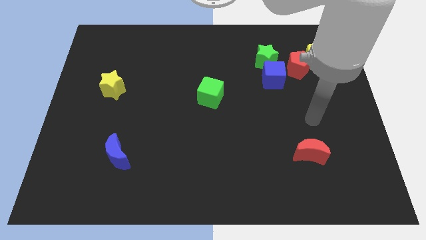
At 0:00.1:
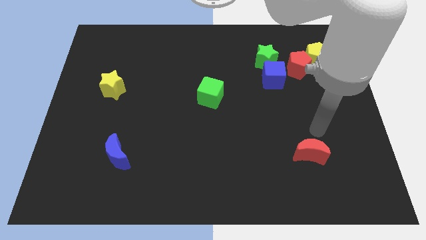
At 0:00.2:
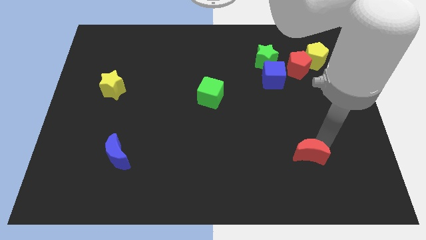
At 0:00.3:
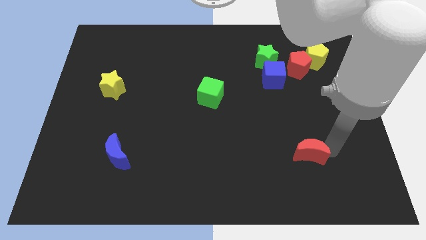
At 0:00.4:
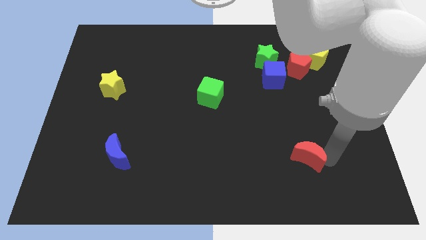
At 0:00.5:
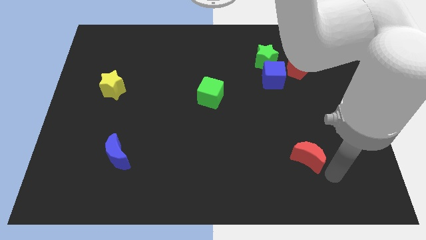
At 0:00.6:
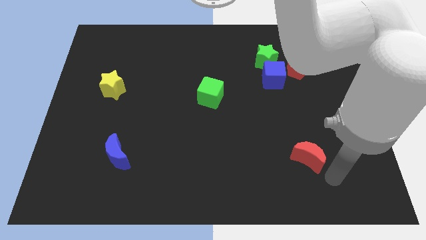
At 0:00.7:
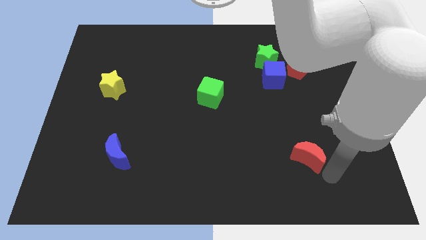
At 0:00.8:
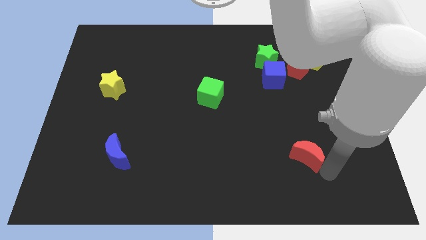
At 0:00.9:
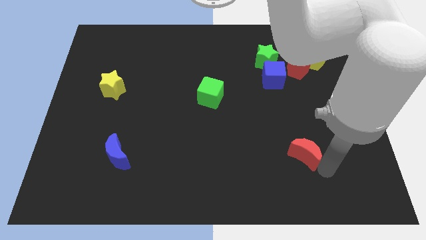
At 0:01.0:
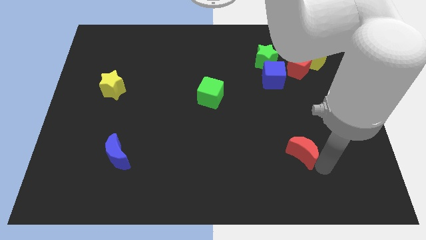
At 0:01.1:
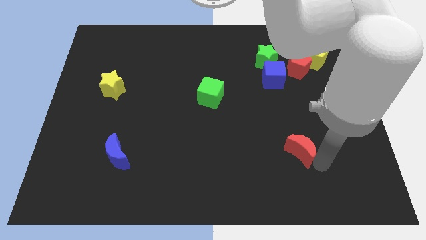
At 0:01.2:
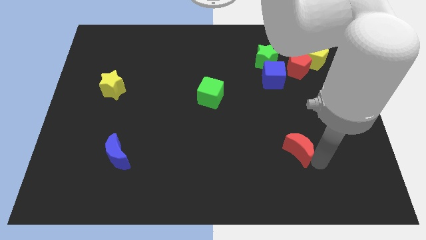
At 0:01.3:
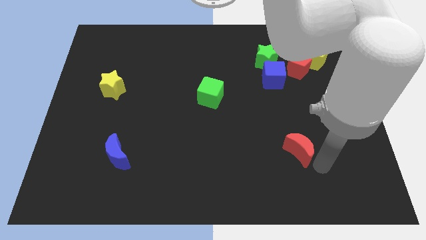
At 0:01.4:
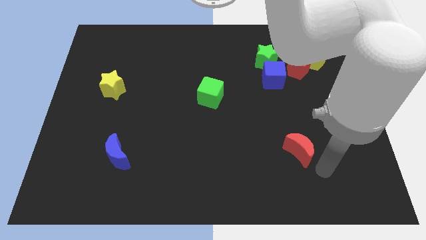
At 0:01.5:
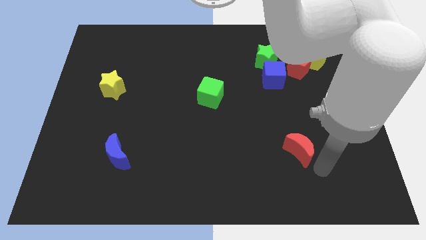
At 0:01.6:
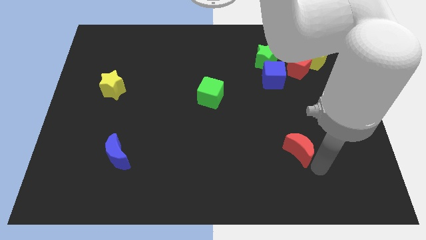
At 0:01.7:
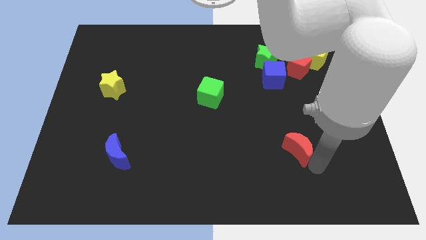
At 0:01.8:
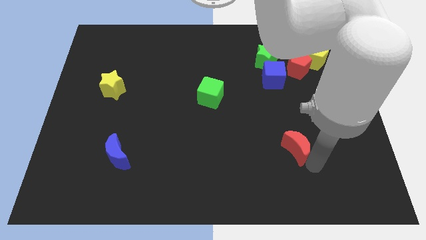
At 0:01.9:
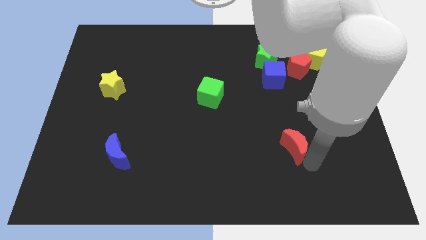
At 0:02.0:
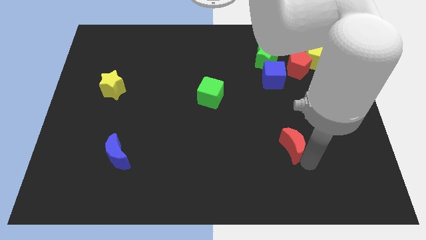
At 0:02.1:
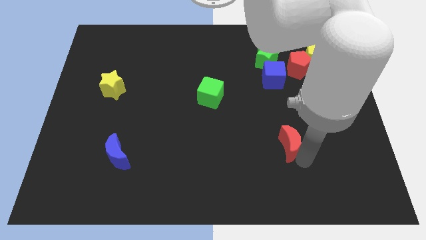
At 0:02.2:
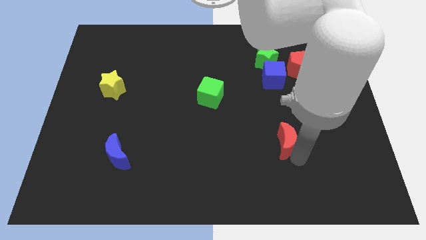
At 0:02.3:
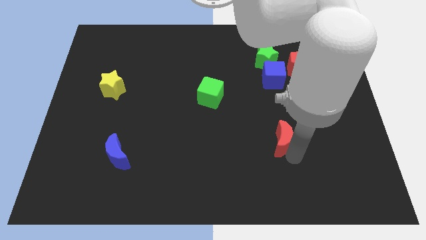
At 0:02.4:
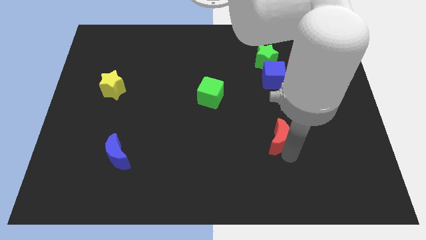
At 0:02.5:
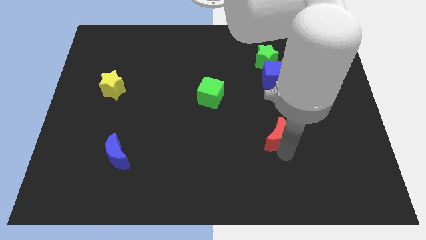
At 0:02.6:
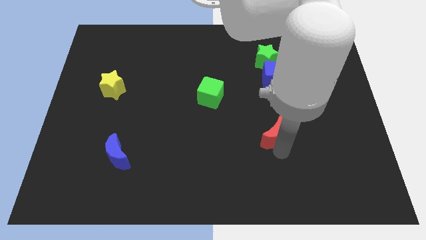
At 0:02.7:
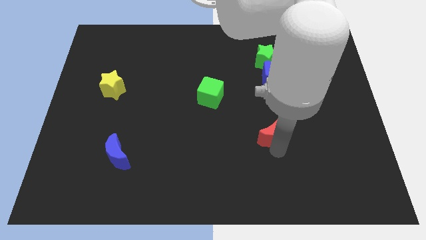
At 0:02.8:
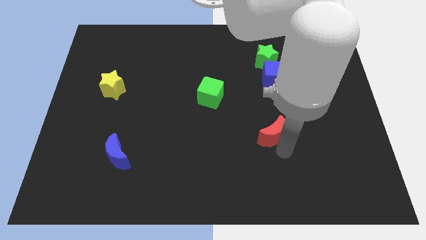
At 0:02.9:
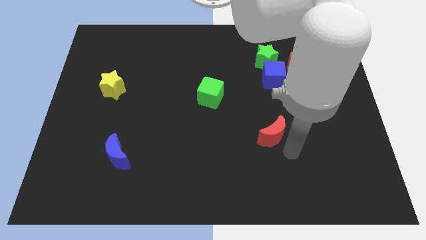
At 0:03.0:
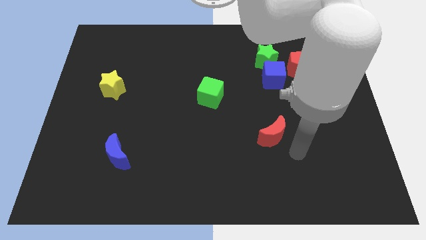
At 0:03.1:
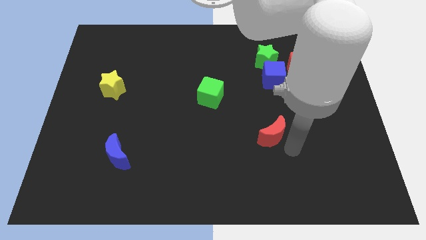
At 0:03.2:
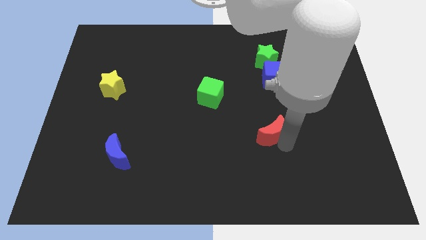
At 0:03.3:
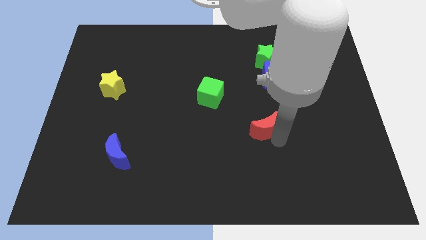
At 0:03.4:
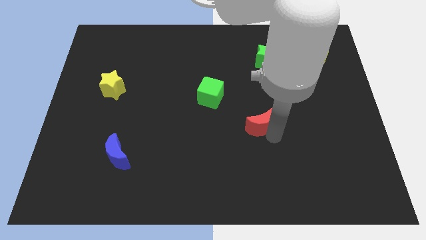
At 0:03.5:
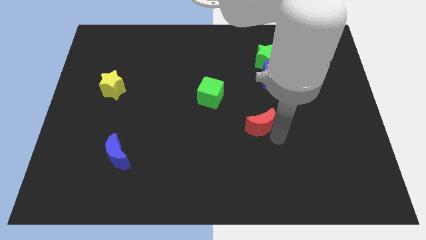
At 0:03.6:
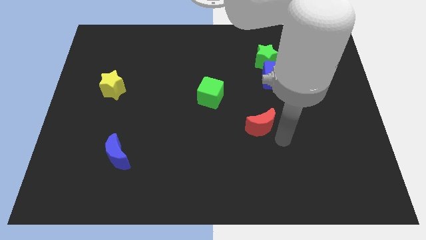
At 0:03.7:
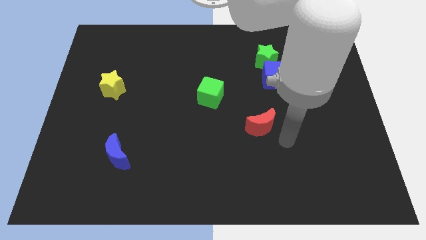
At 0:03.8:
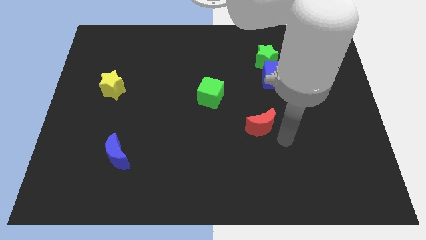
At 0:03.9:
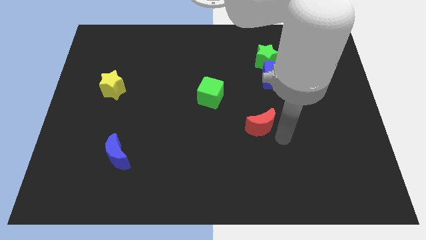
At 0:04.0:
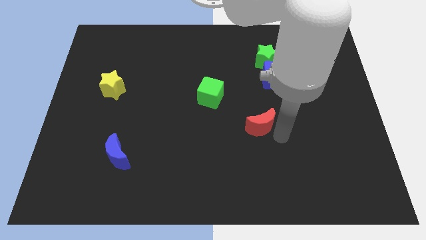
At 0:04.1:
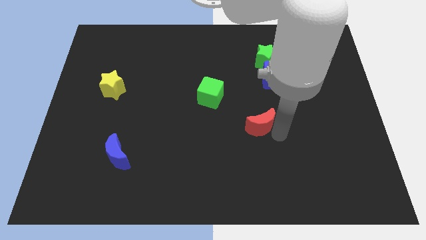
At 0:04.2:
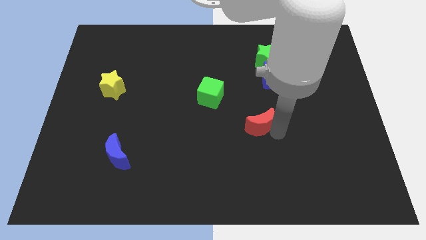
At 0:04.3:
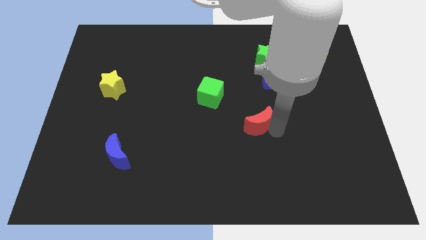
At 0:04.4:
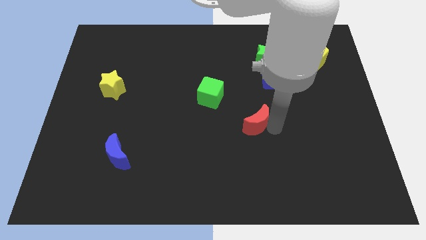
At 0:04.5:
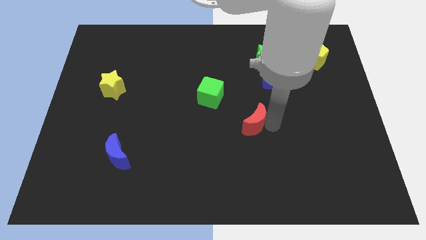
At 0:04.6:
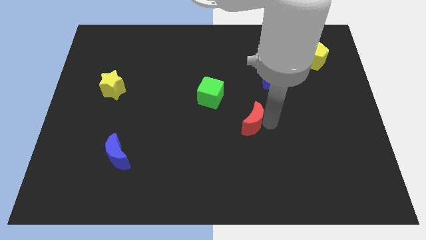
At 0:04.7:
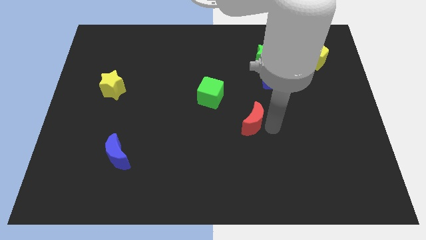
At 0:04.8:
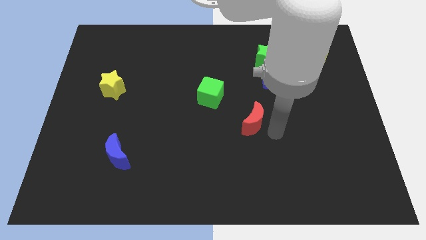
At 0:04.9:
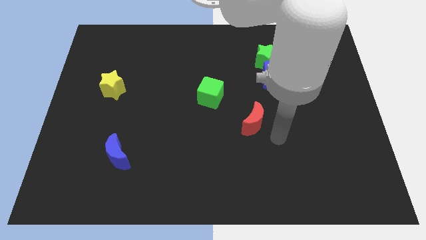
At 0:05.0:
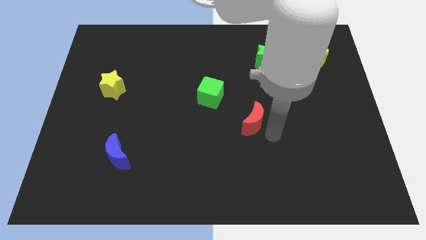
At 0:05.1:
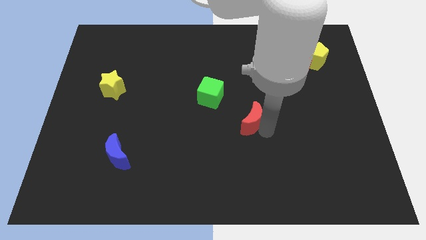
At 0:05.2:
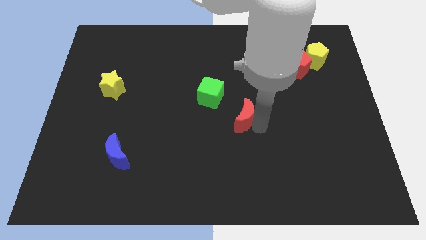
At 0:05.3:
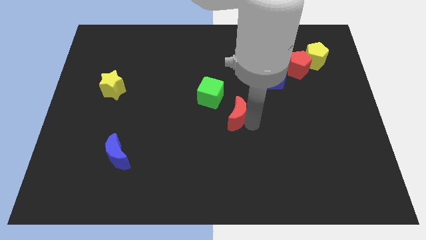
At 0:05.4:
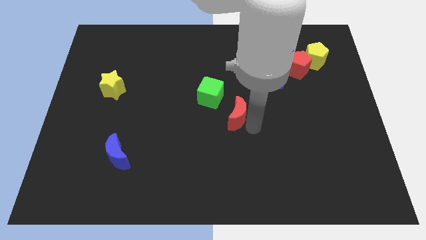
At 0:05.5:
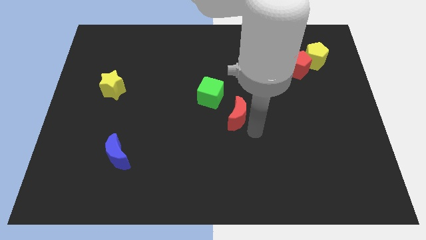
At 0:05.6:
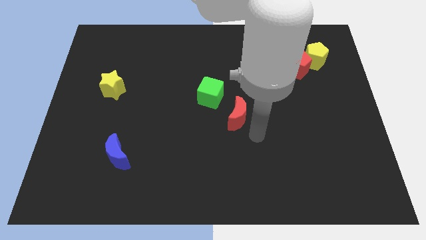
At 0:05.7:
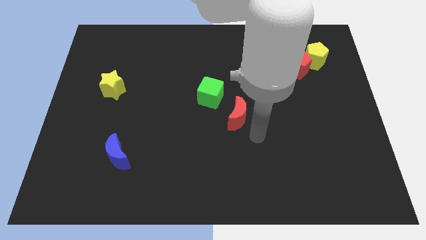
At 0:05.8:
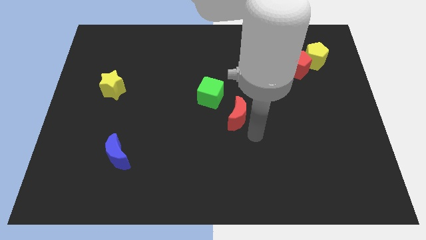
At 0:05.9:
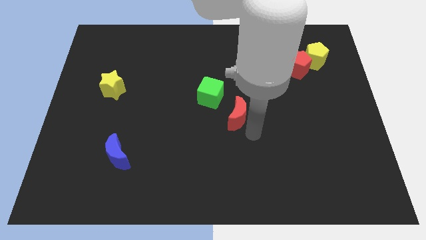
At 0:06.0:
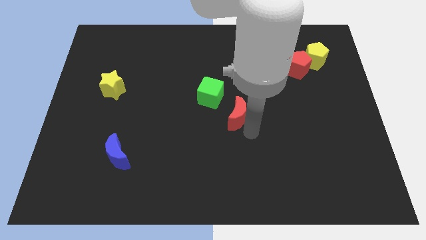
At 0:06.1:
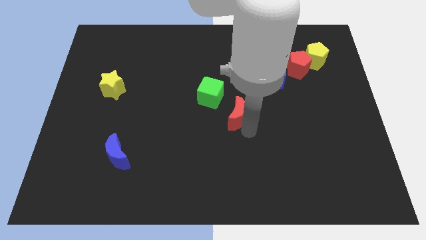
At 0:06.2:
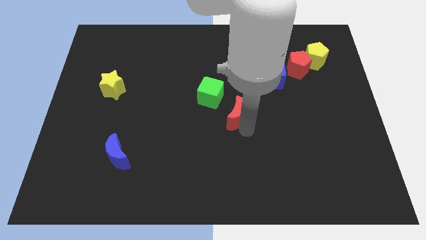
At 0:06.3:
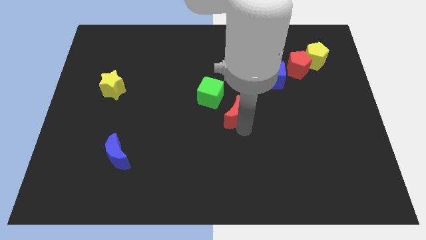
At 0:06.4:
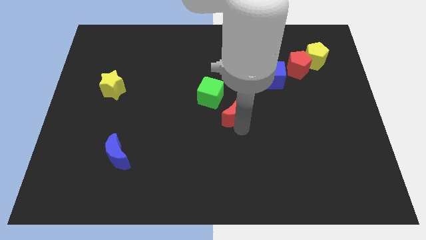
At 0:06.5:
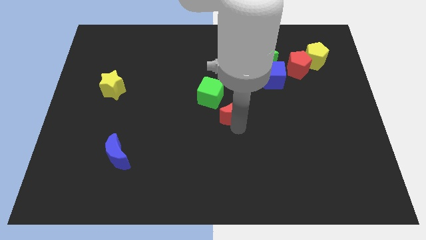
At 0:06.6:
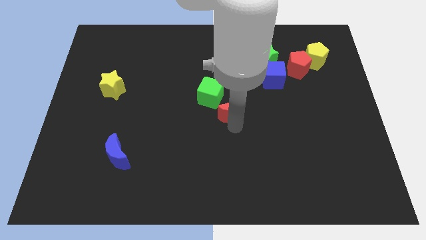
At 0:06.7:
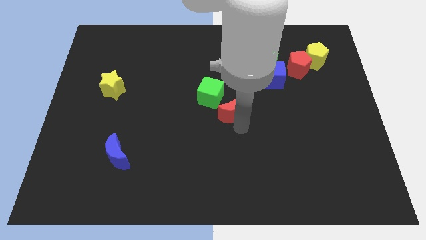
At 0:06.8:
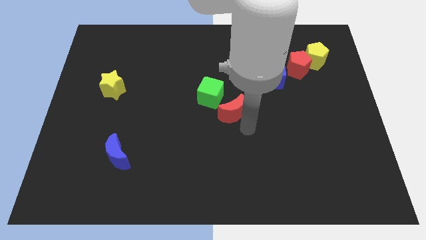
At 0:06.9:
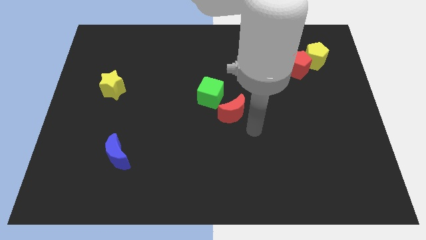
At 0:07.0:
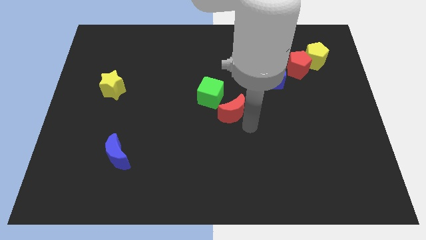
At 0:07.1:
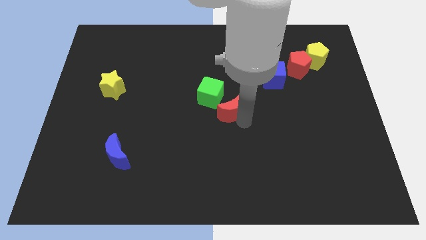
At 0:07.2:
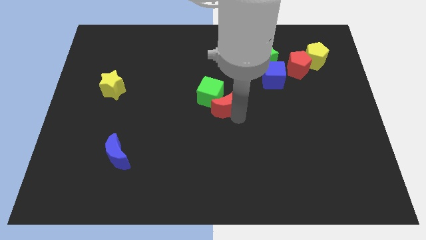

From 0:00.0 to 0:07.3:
slide the red moon close to the green cube
